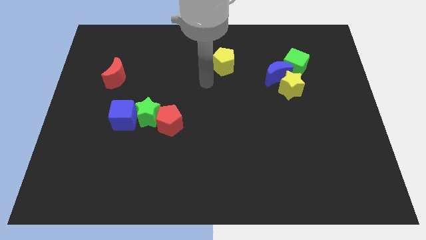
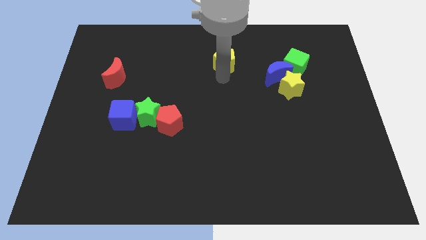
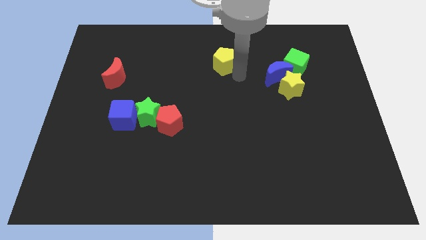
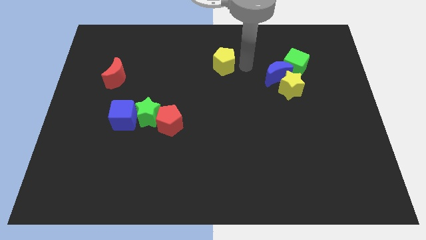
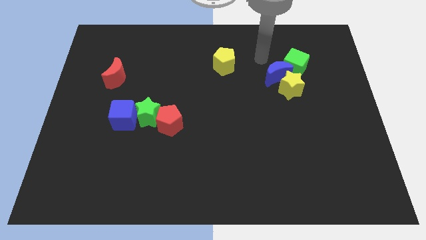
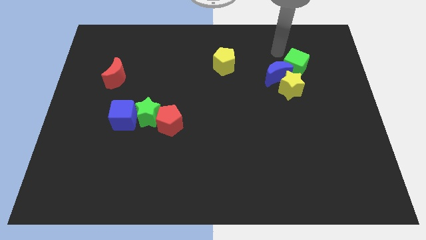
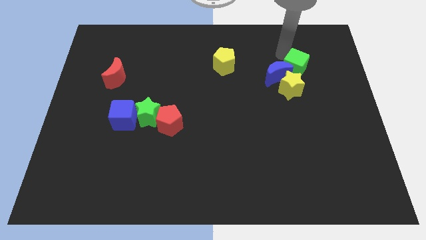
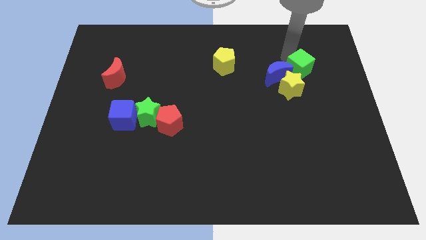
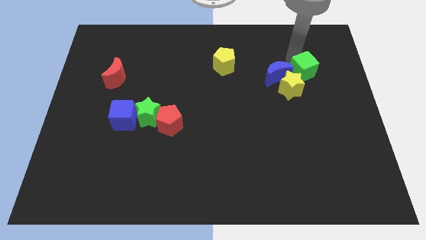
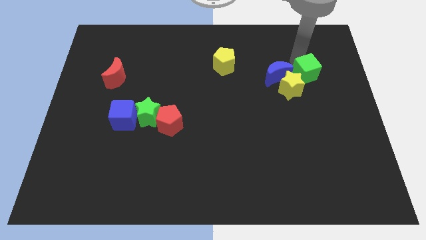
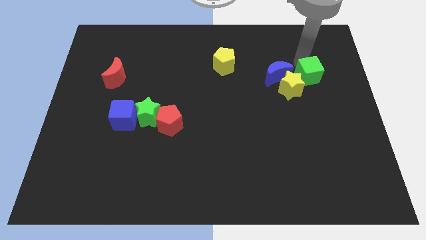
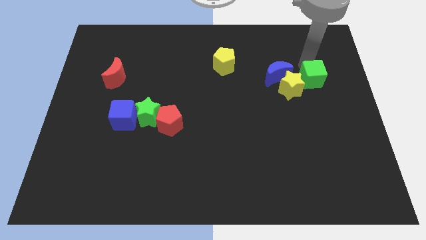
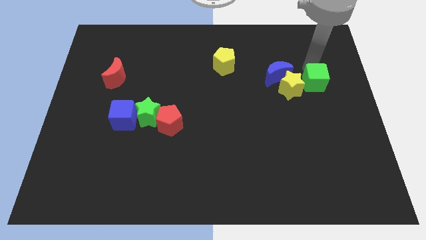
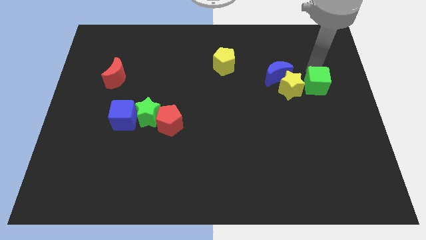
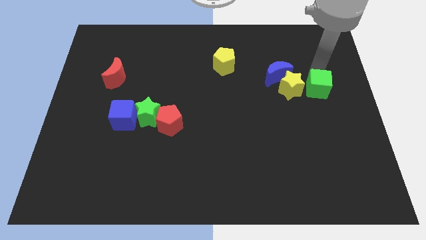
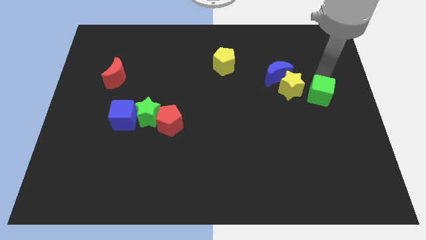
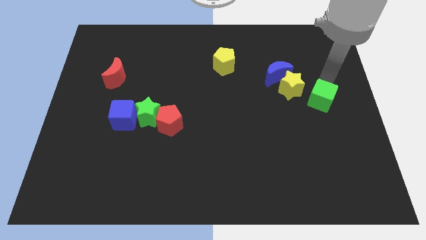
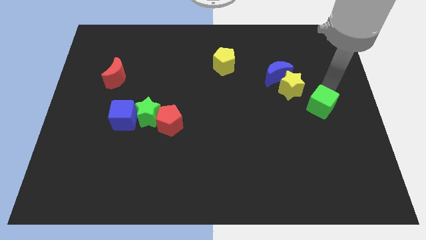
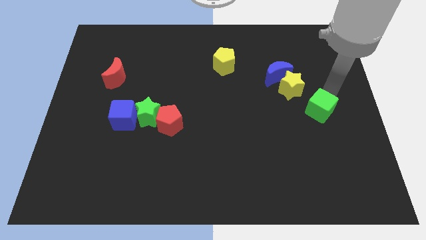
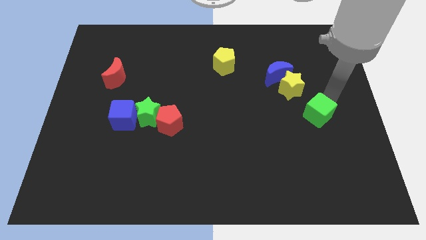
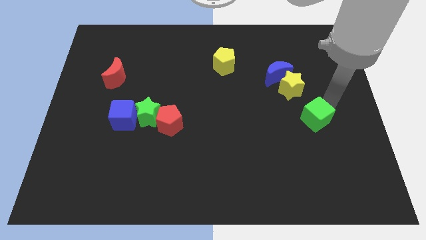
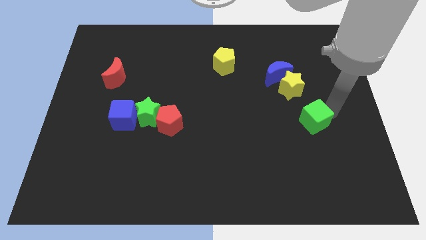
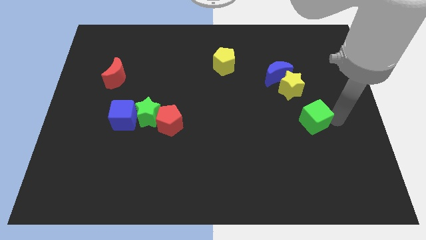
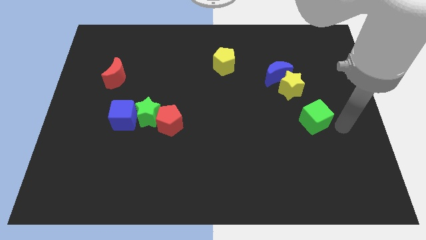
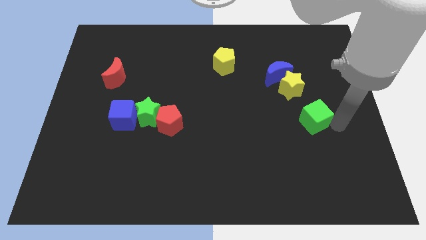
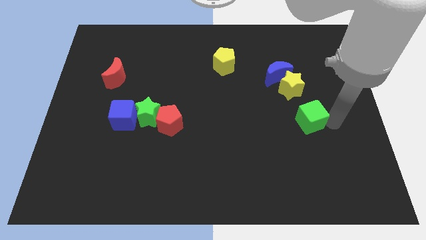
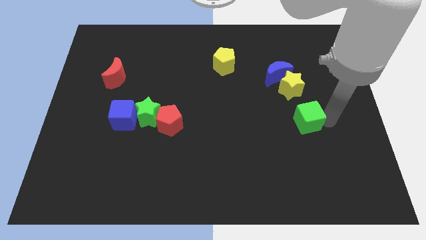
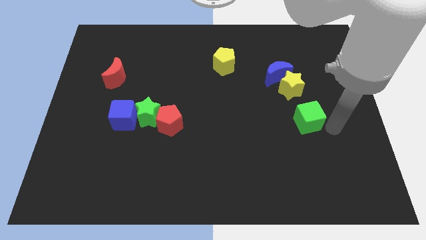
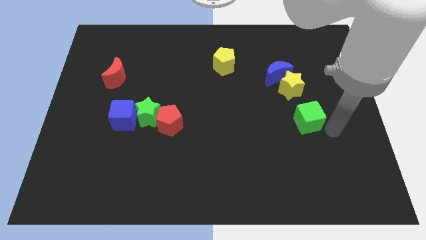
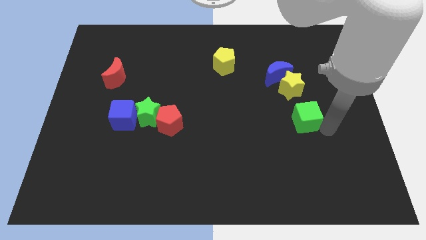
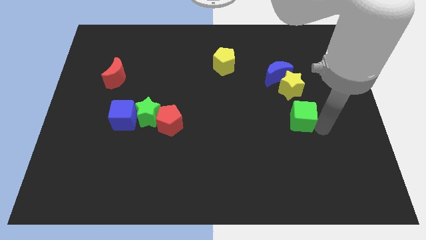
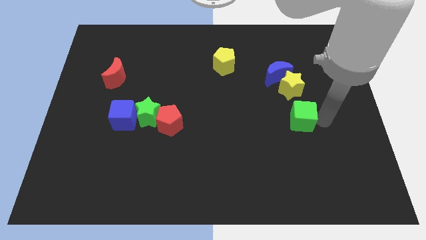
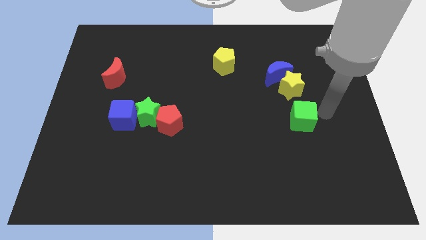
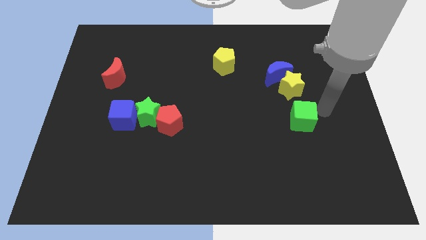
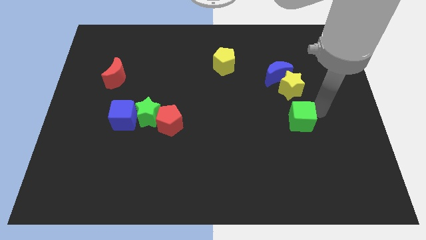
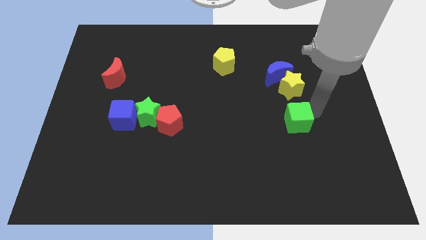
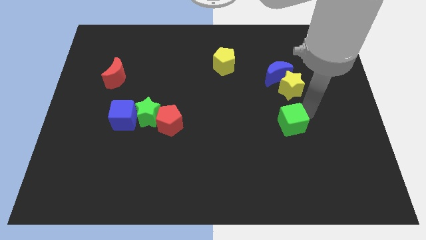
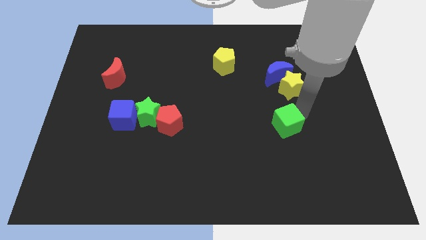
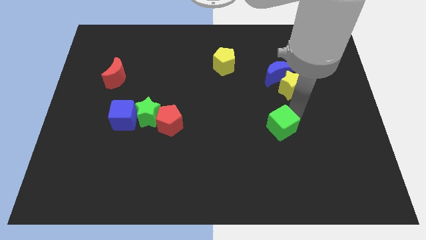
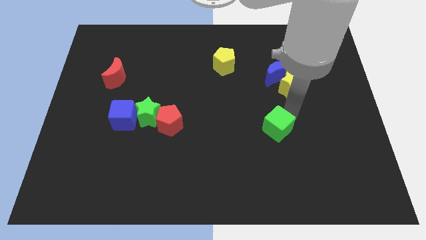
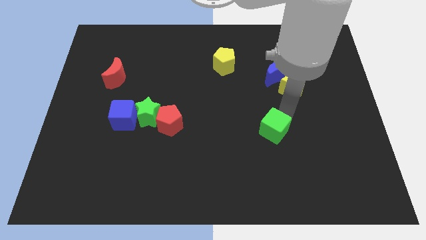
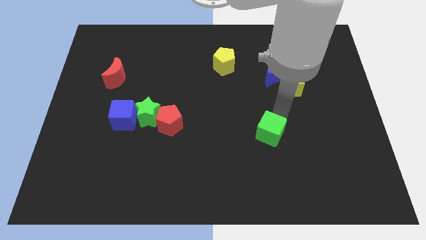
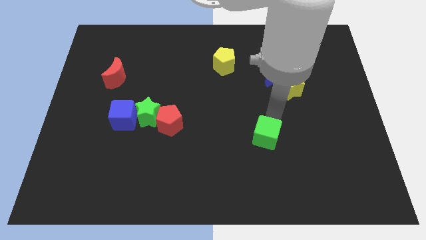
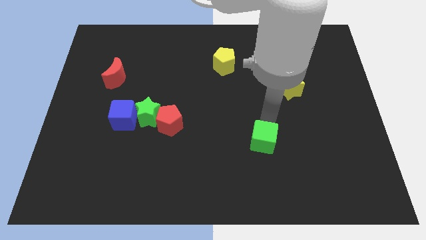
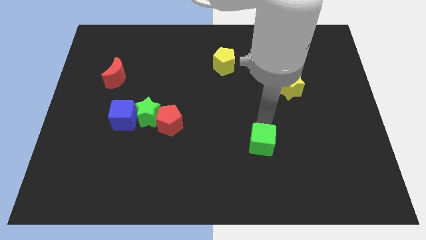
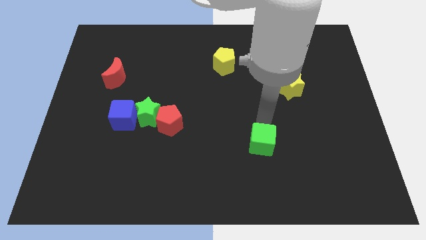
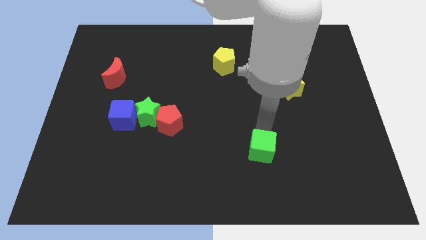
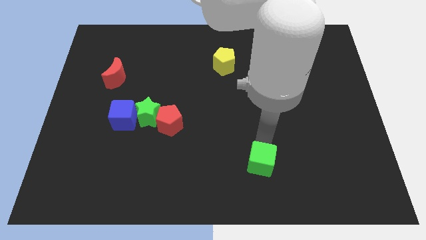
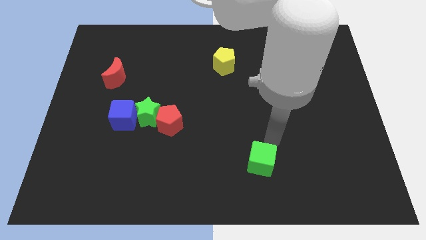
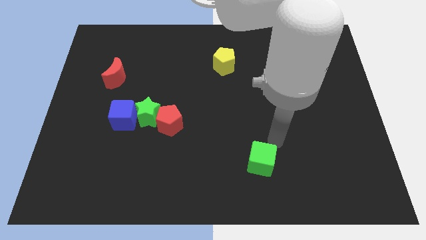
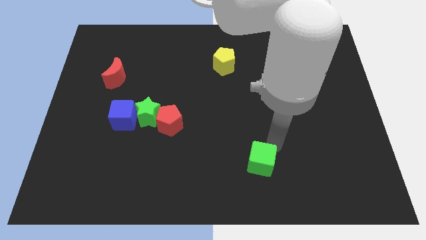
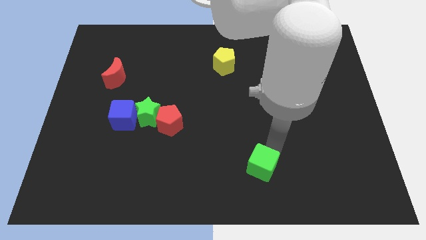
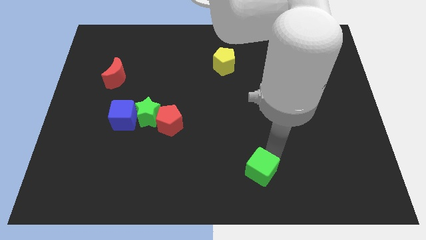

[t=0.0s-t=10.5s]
move the green cube to the bottom

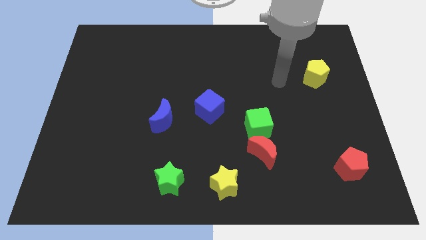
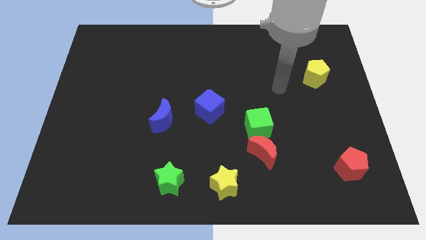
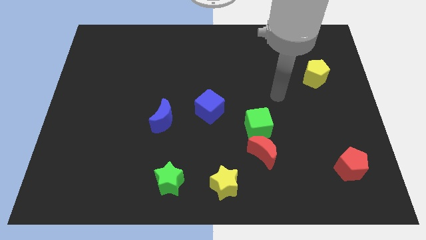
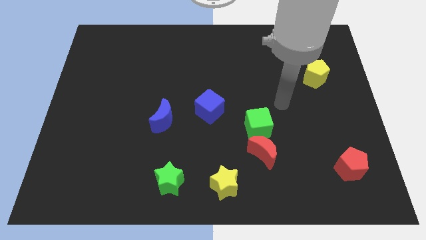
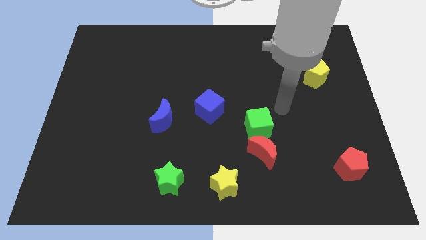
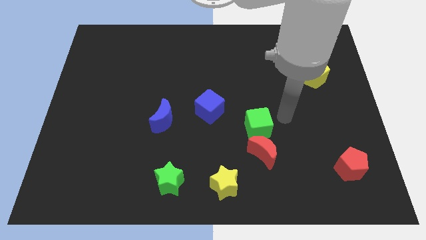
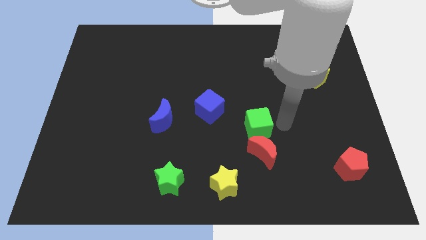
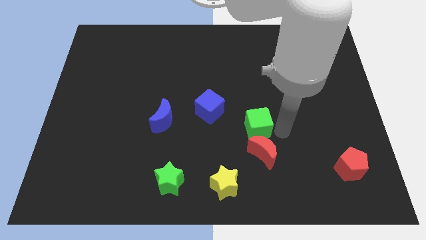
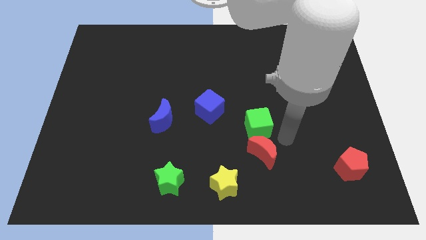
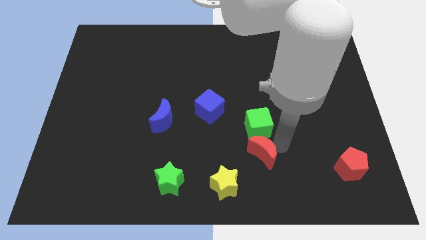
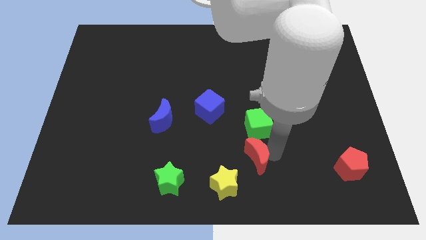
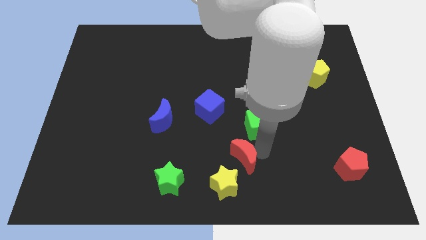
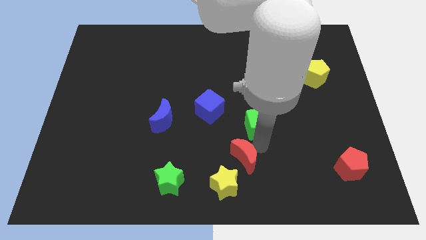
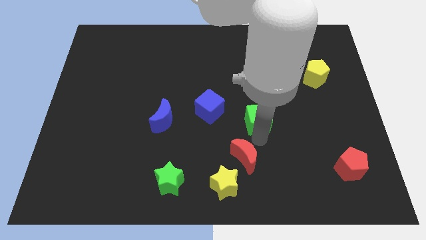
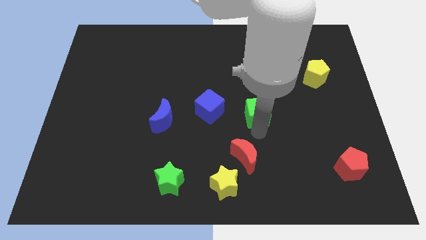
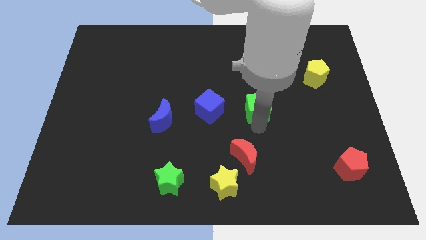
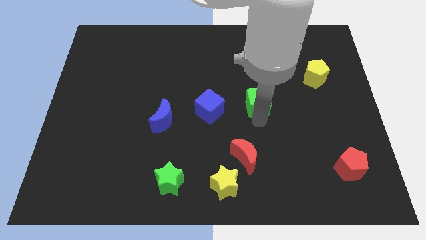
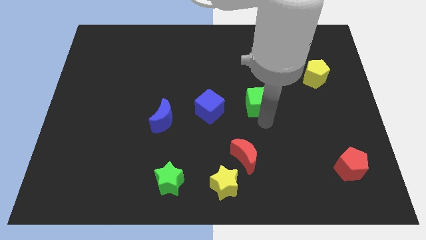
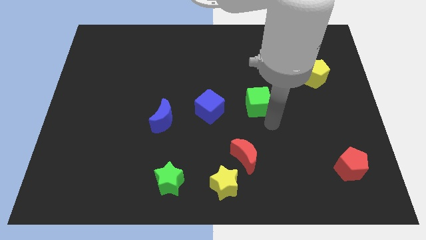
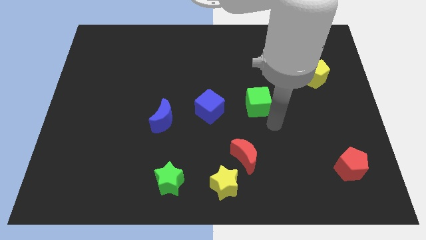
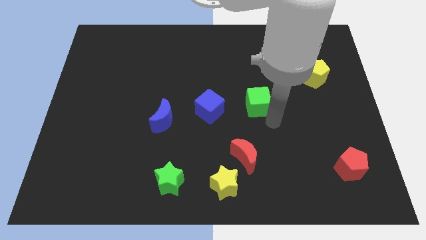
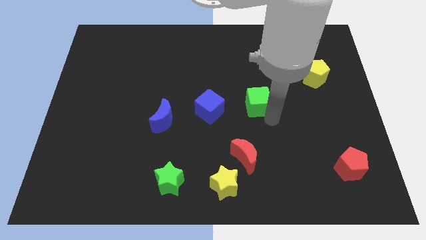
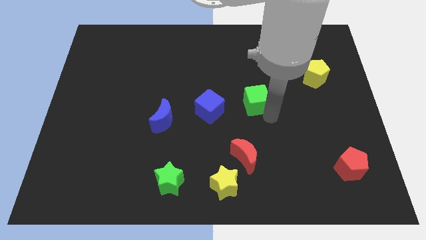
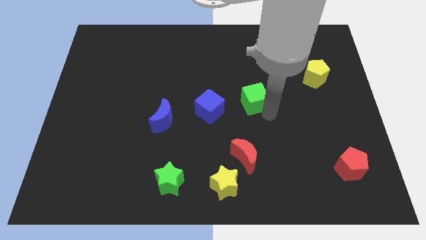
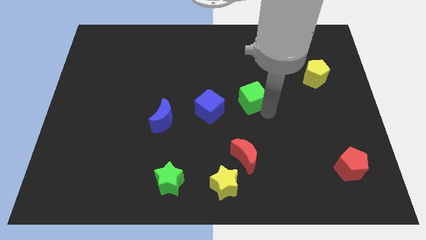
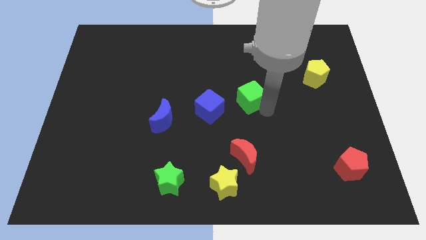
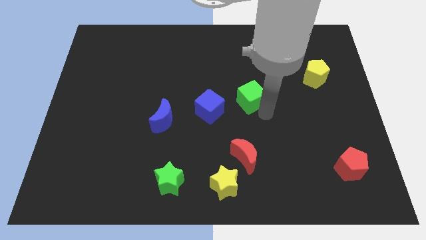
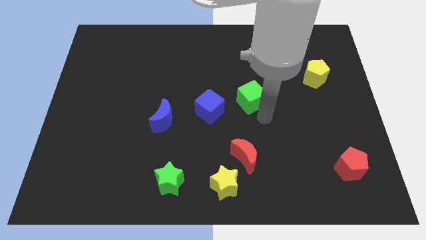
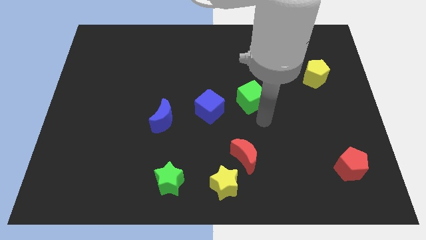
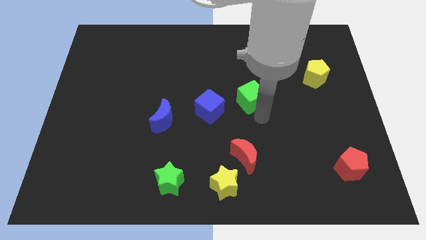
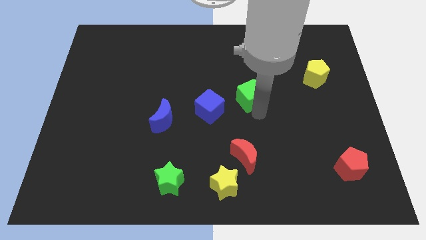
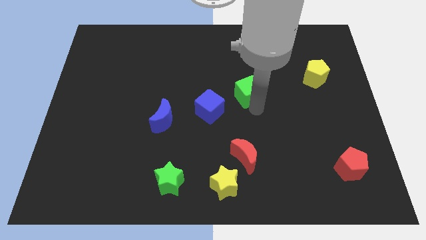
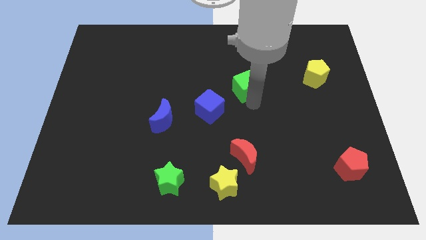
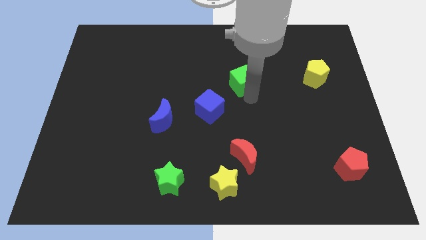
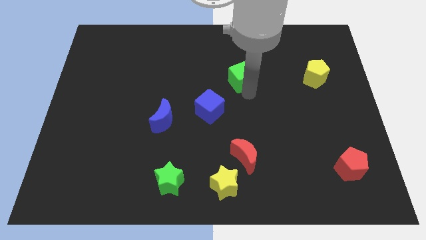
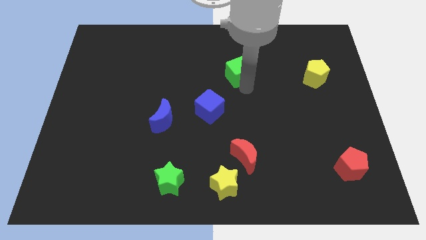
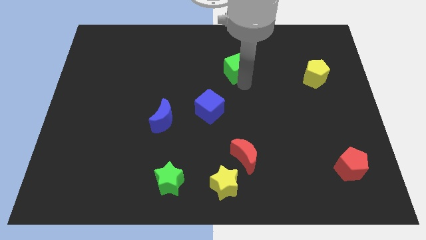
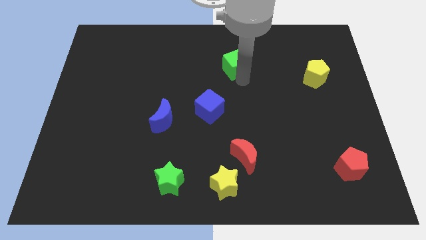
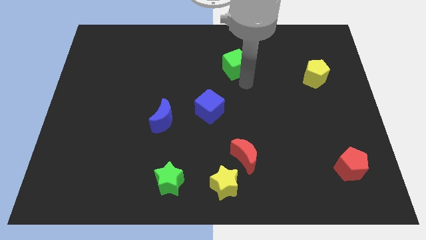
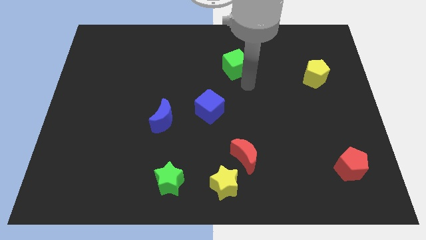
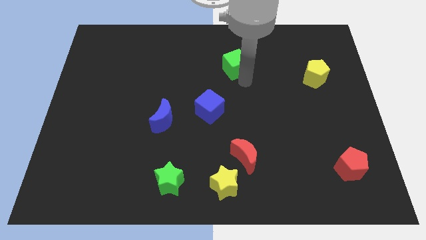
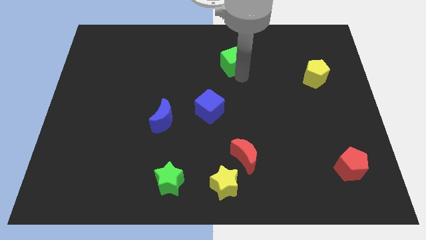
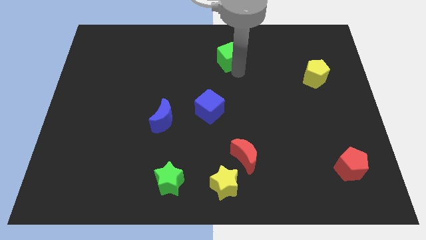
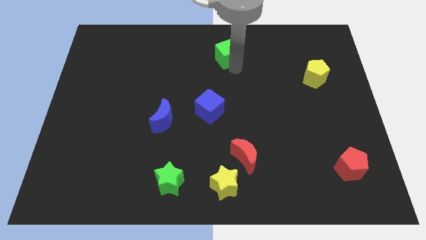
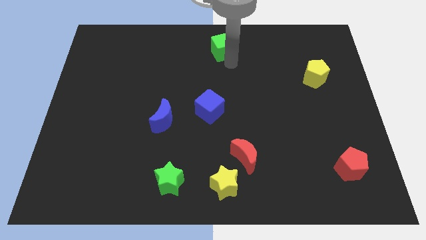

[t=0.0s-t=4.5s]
slide the green cube to the top side
